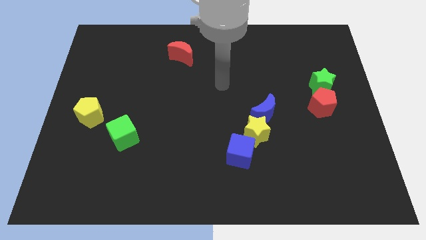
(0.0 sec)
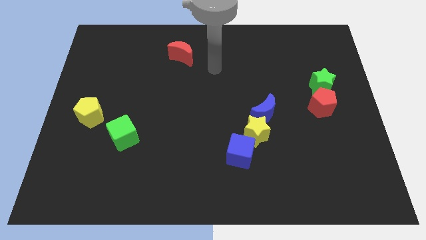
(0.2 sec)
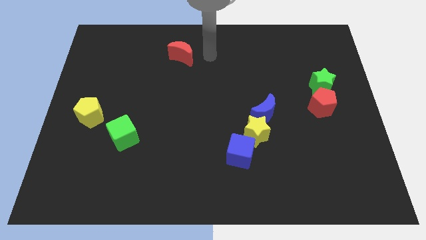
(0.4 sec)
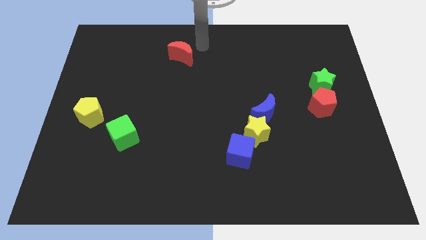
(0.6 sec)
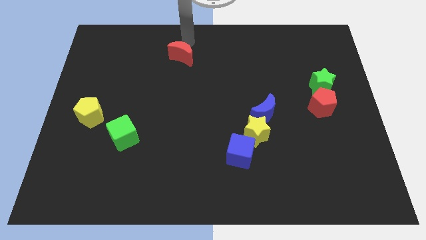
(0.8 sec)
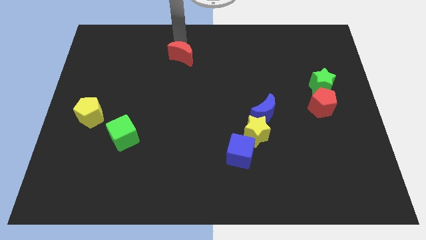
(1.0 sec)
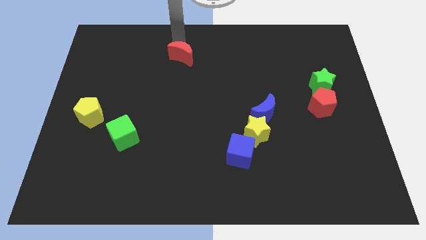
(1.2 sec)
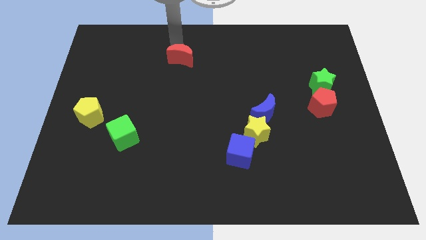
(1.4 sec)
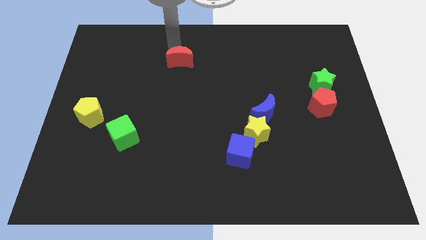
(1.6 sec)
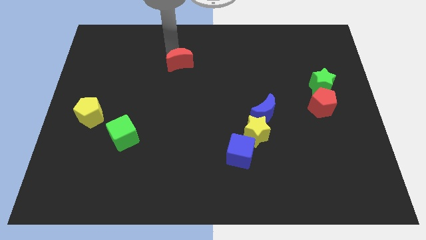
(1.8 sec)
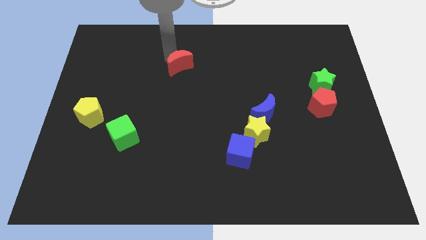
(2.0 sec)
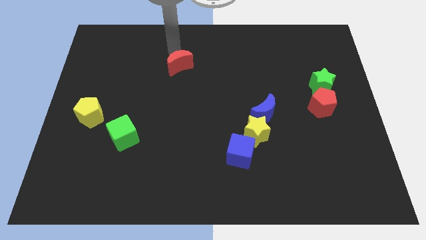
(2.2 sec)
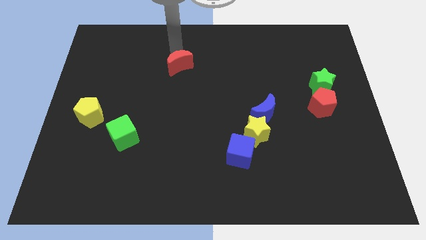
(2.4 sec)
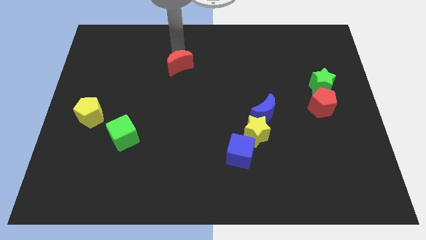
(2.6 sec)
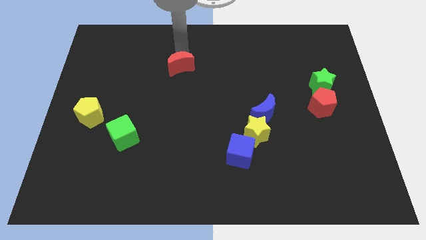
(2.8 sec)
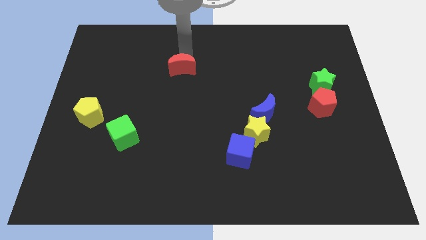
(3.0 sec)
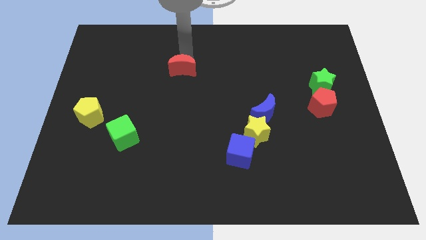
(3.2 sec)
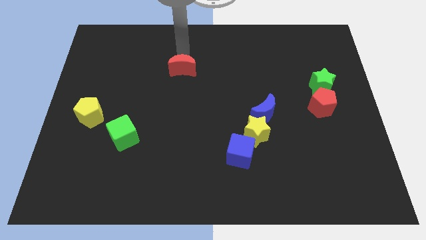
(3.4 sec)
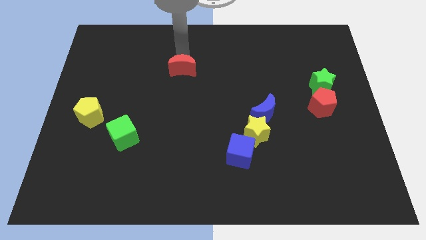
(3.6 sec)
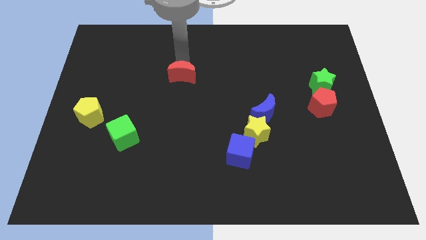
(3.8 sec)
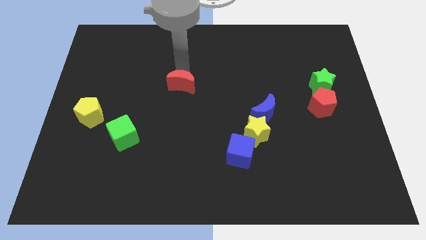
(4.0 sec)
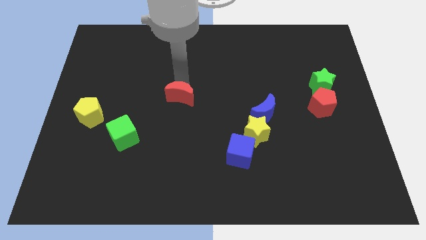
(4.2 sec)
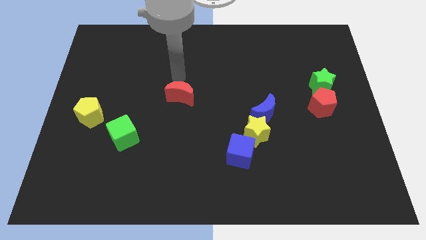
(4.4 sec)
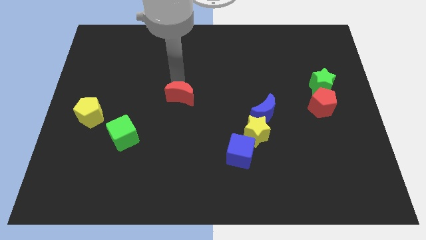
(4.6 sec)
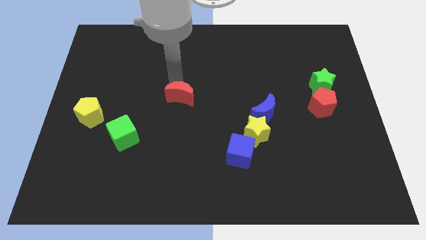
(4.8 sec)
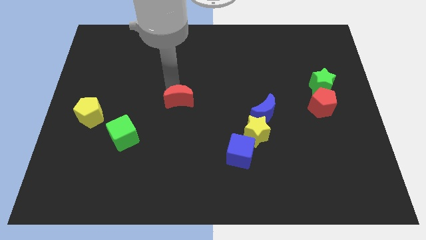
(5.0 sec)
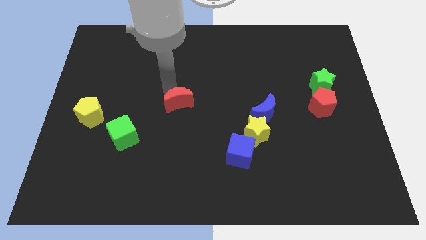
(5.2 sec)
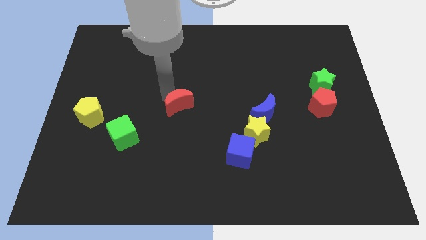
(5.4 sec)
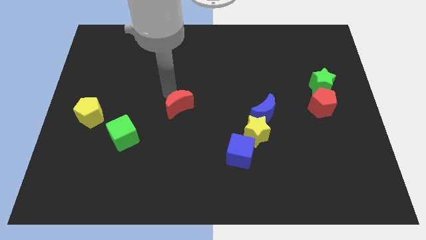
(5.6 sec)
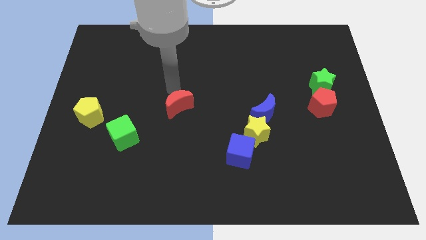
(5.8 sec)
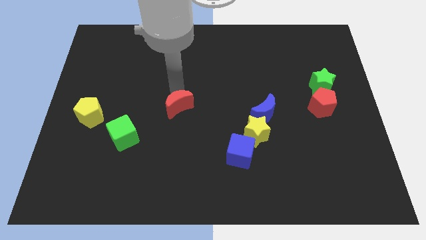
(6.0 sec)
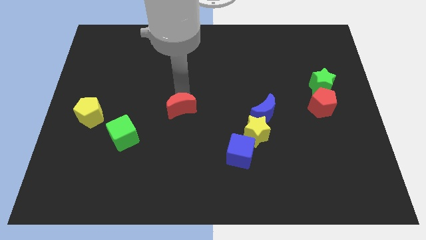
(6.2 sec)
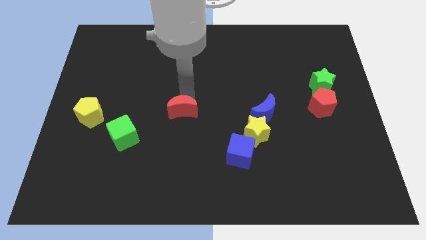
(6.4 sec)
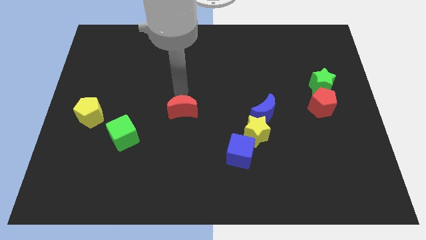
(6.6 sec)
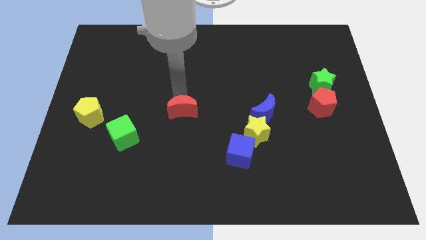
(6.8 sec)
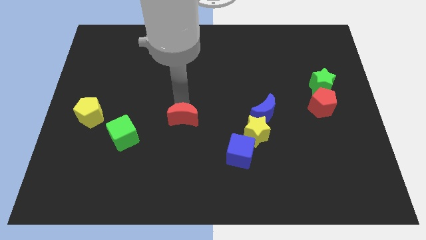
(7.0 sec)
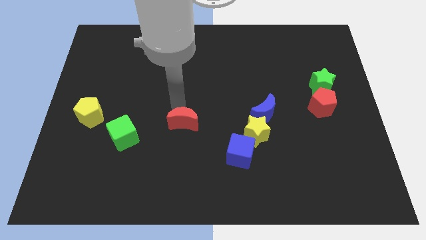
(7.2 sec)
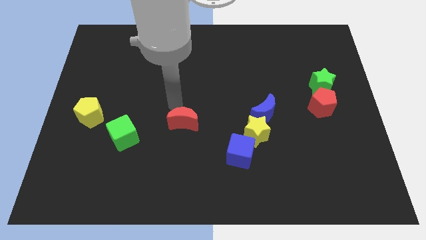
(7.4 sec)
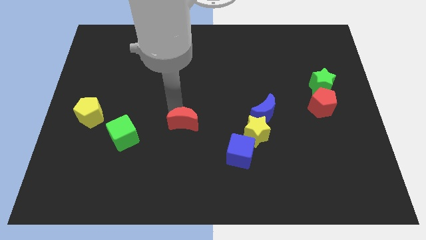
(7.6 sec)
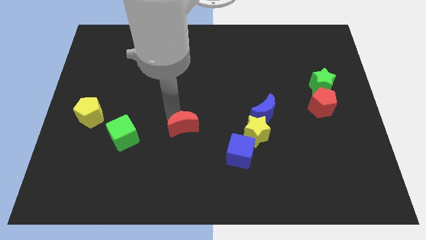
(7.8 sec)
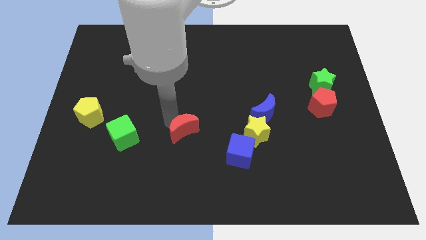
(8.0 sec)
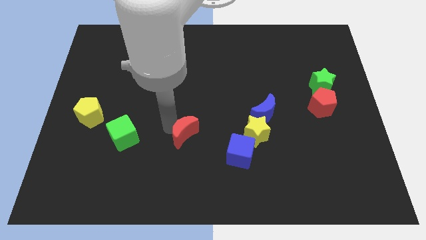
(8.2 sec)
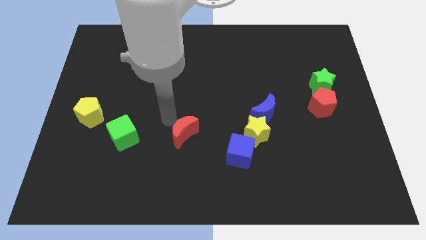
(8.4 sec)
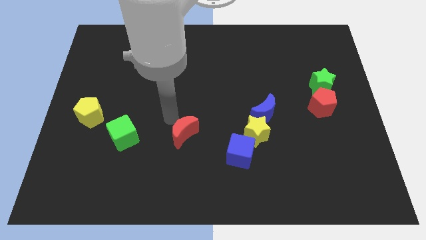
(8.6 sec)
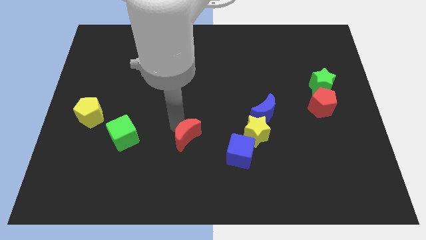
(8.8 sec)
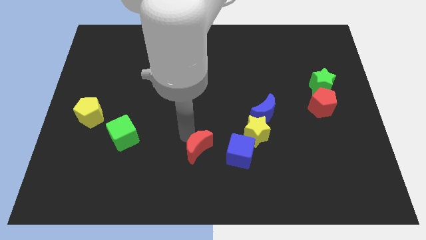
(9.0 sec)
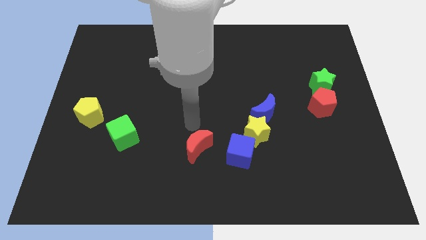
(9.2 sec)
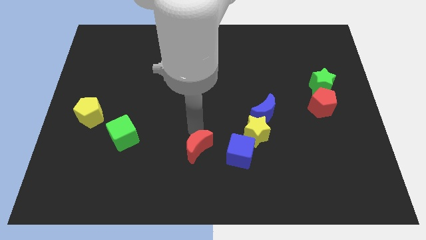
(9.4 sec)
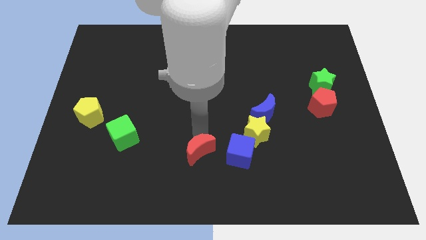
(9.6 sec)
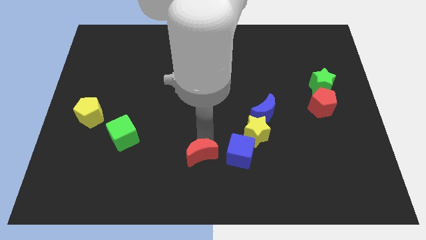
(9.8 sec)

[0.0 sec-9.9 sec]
move the red moon to the bottom side

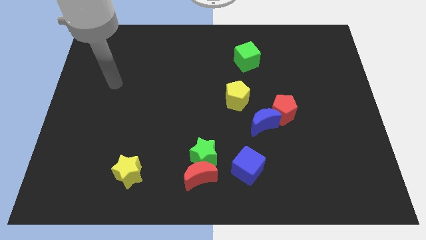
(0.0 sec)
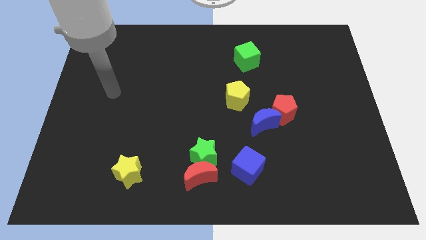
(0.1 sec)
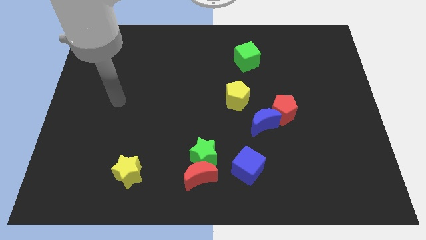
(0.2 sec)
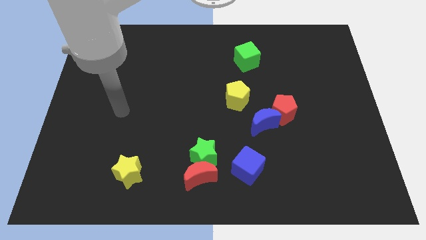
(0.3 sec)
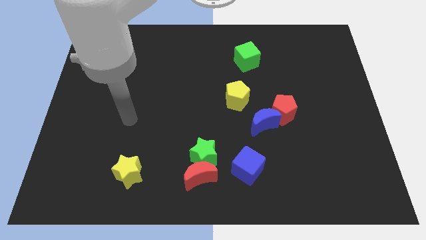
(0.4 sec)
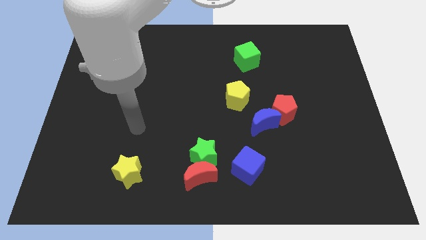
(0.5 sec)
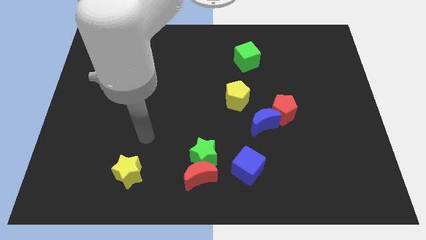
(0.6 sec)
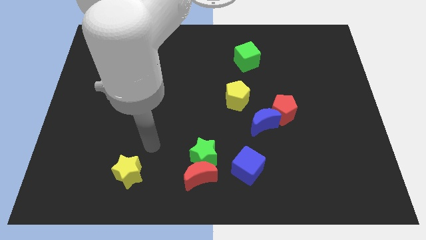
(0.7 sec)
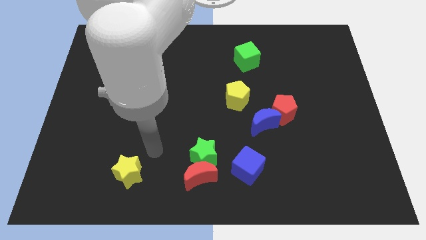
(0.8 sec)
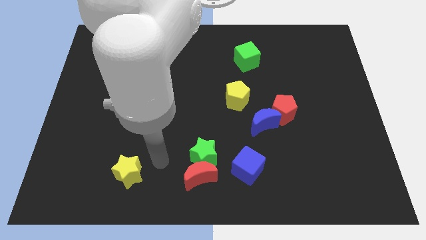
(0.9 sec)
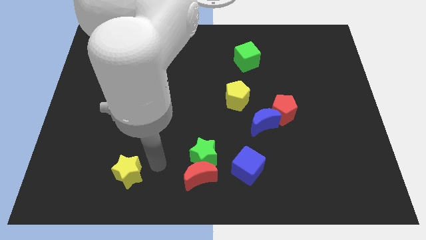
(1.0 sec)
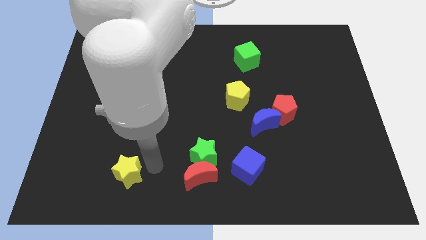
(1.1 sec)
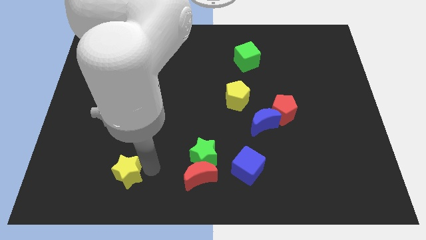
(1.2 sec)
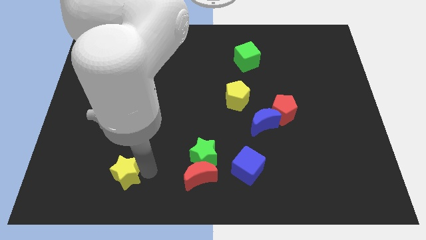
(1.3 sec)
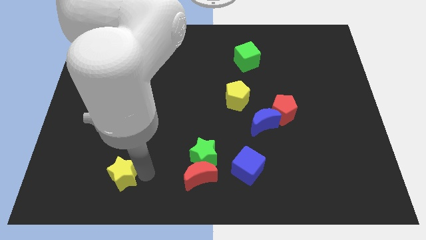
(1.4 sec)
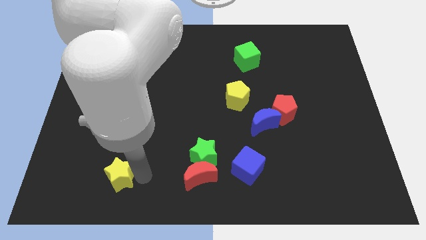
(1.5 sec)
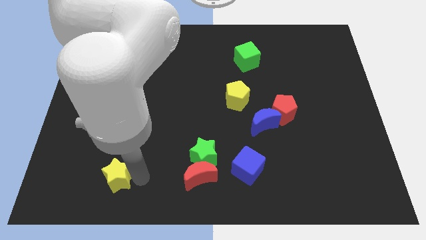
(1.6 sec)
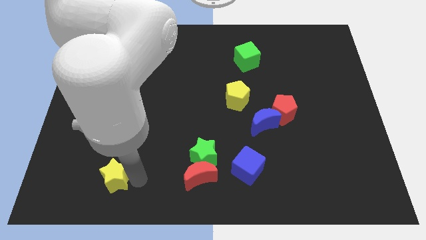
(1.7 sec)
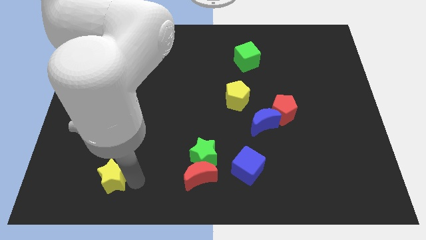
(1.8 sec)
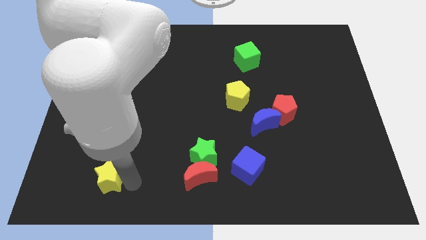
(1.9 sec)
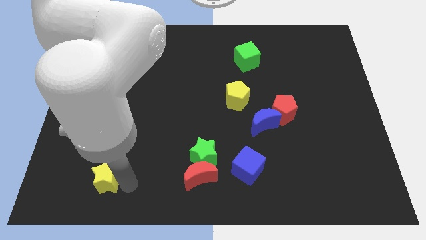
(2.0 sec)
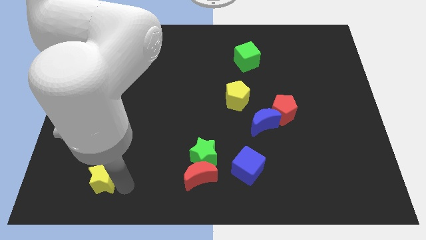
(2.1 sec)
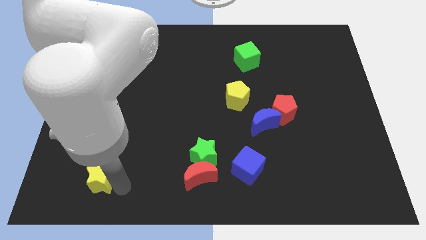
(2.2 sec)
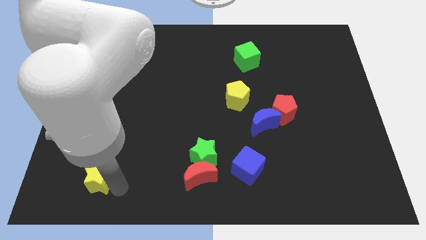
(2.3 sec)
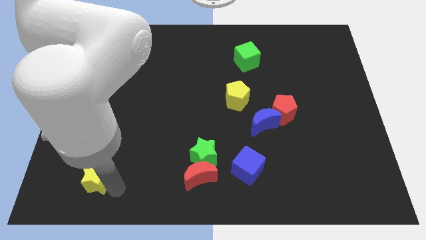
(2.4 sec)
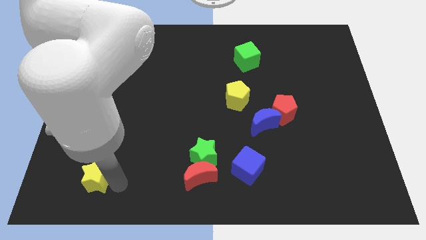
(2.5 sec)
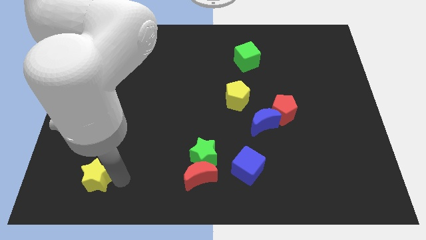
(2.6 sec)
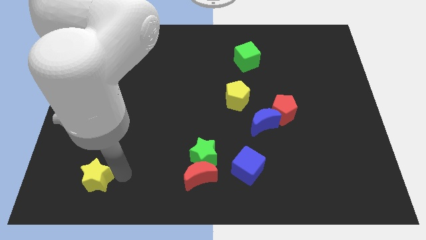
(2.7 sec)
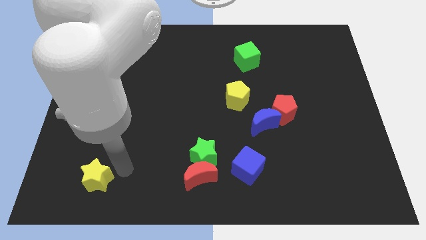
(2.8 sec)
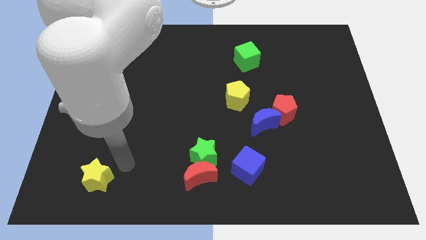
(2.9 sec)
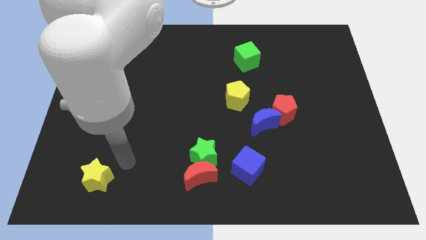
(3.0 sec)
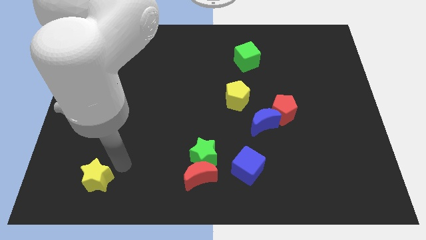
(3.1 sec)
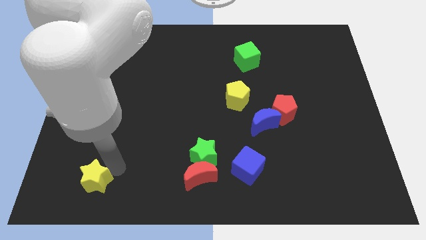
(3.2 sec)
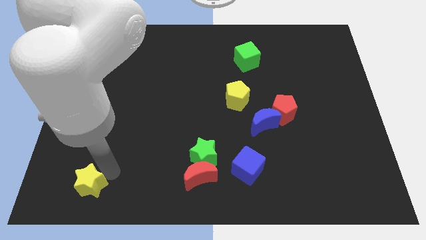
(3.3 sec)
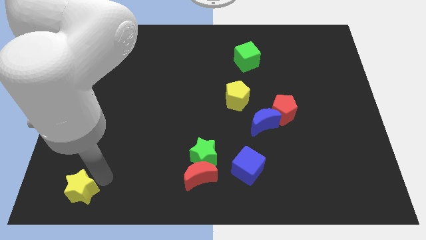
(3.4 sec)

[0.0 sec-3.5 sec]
push the yellow star to the lower left corner
